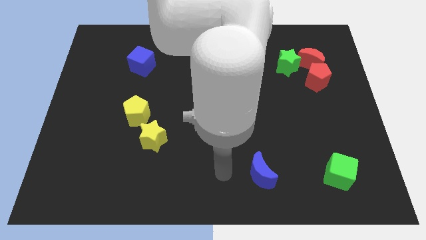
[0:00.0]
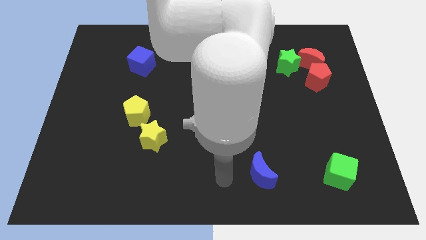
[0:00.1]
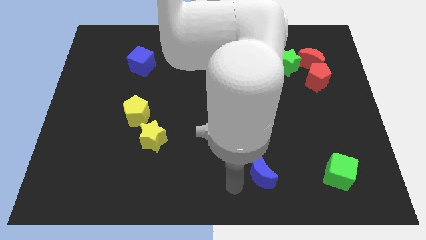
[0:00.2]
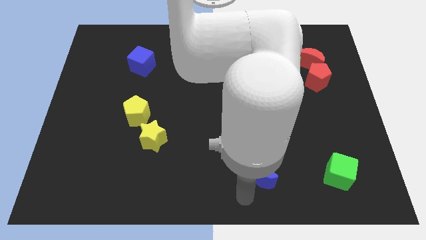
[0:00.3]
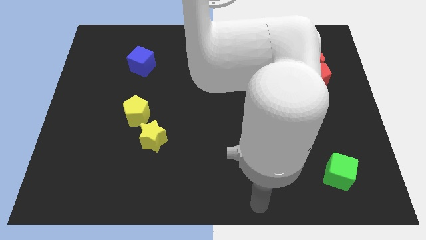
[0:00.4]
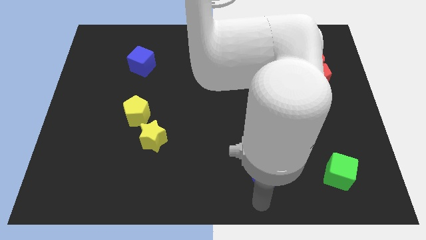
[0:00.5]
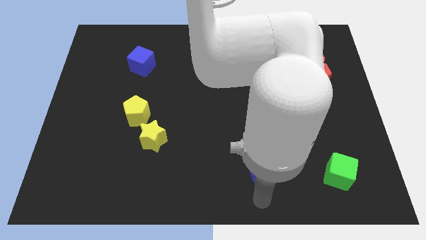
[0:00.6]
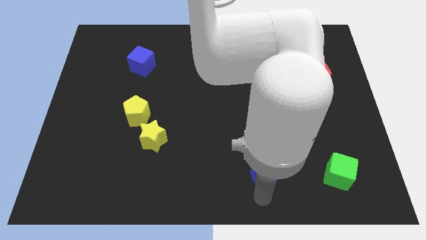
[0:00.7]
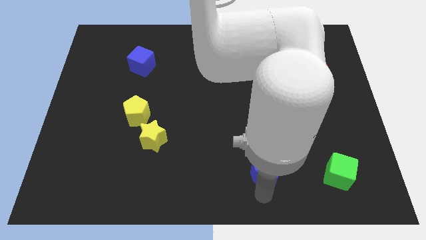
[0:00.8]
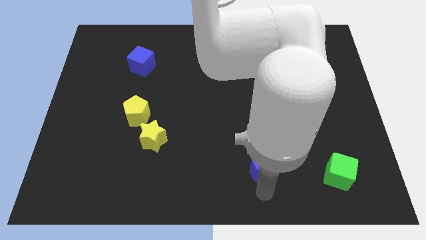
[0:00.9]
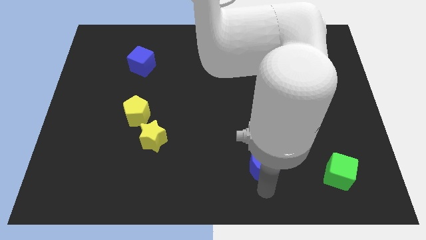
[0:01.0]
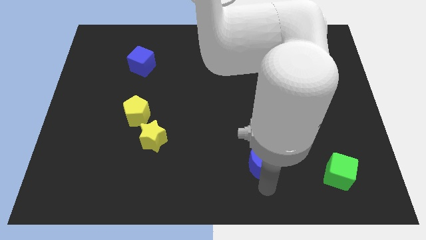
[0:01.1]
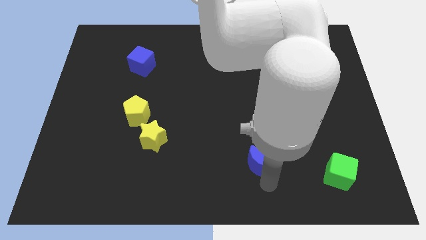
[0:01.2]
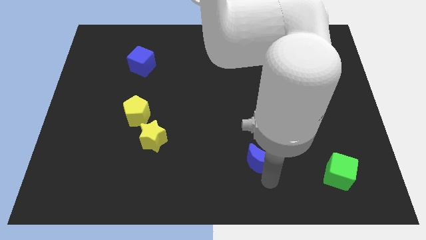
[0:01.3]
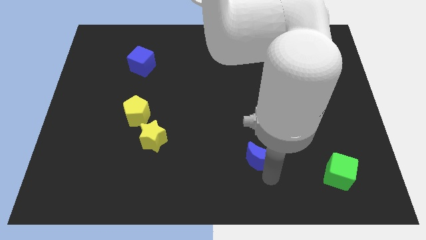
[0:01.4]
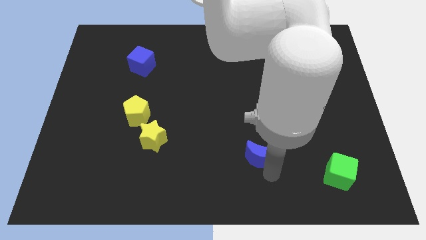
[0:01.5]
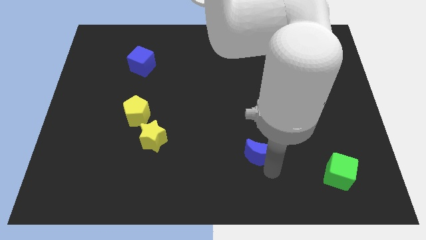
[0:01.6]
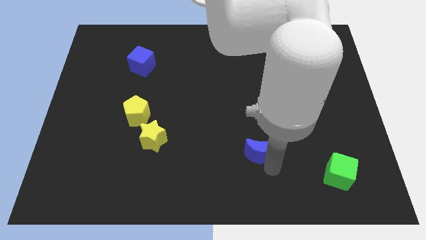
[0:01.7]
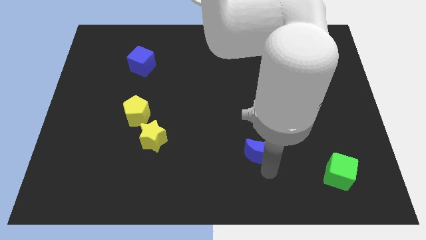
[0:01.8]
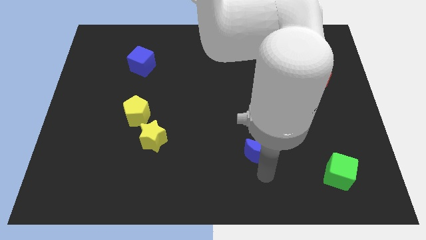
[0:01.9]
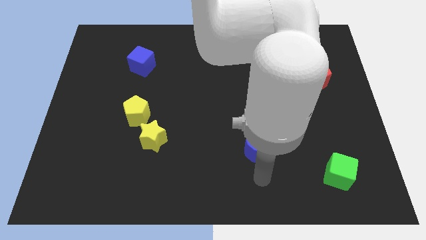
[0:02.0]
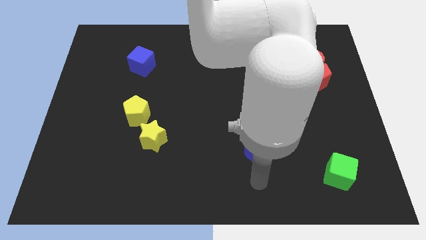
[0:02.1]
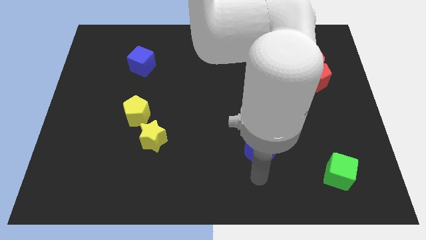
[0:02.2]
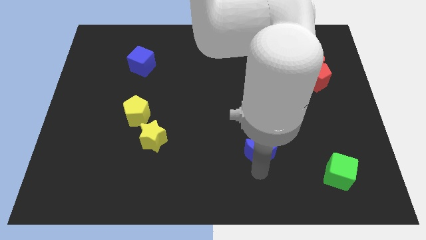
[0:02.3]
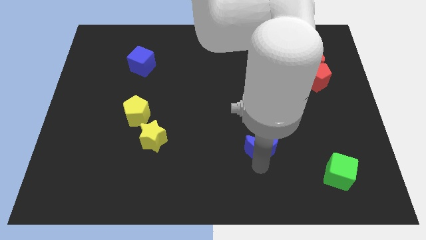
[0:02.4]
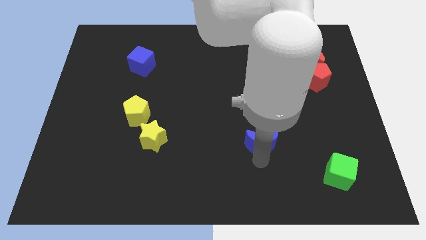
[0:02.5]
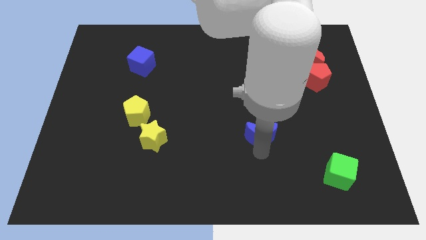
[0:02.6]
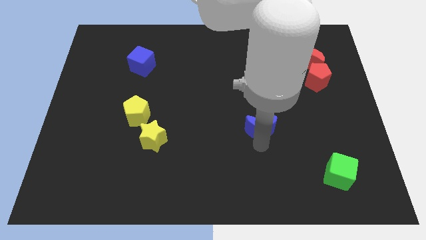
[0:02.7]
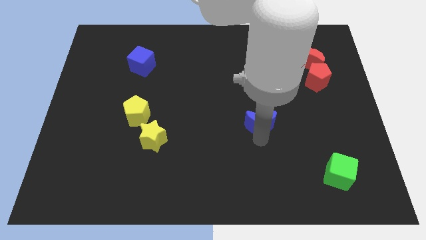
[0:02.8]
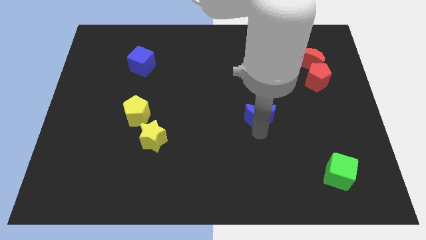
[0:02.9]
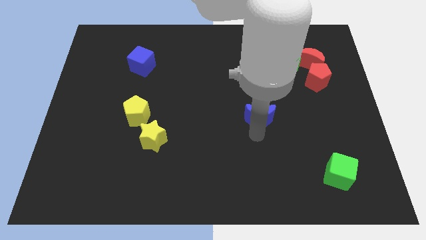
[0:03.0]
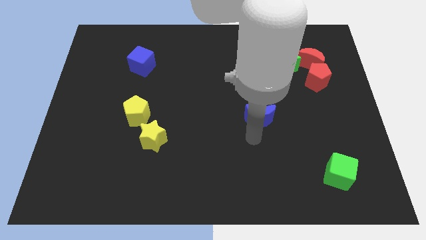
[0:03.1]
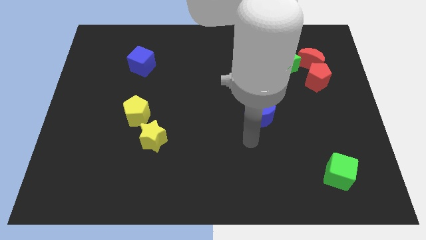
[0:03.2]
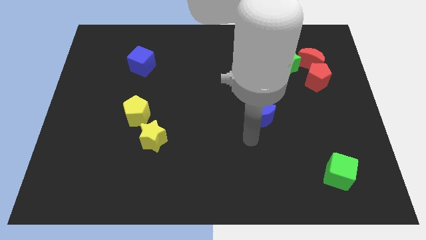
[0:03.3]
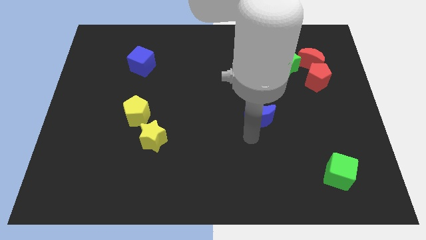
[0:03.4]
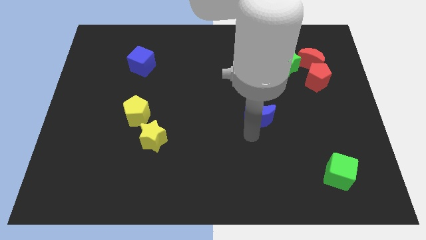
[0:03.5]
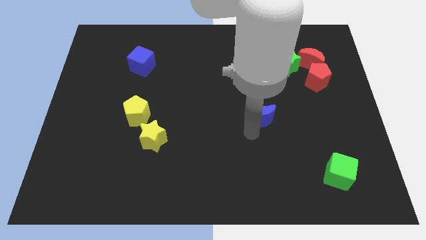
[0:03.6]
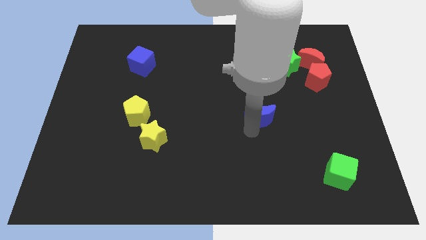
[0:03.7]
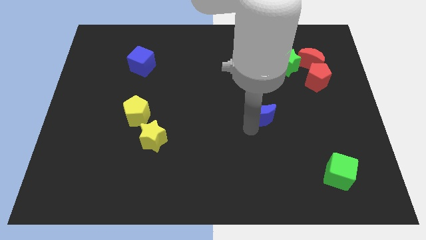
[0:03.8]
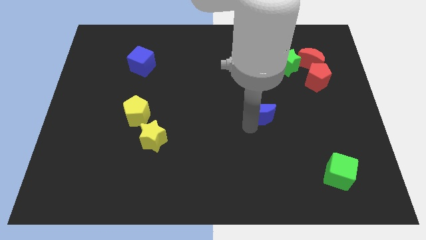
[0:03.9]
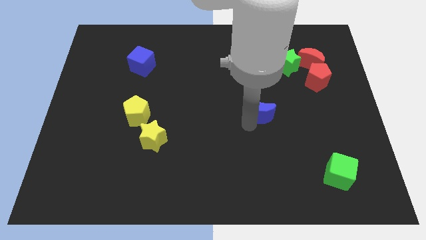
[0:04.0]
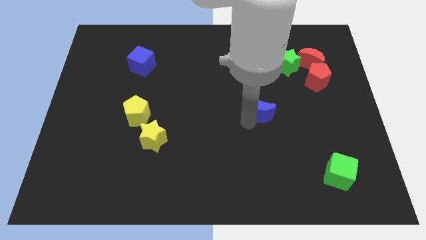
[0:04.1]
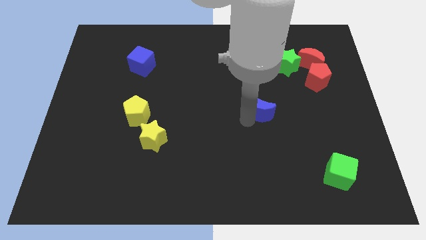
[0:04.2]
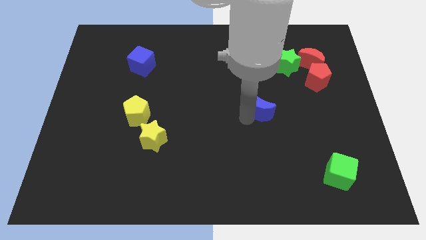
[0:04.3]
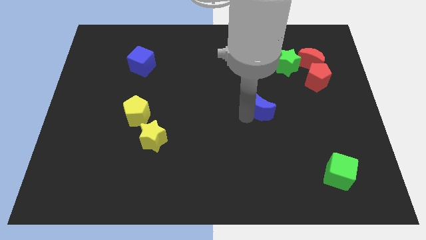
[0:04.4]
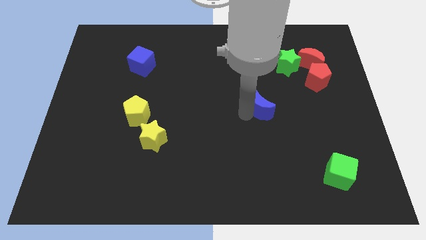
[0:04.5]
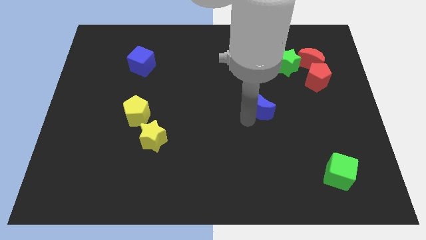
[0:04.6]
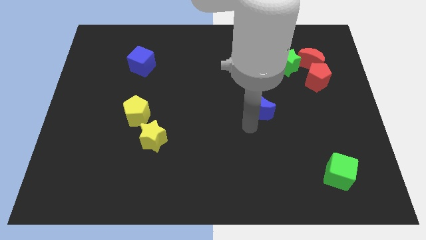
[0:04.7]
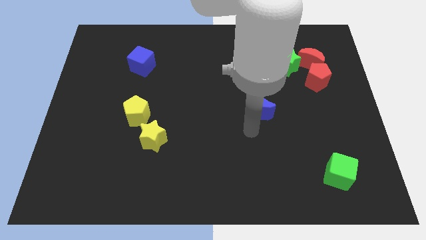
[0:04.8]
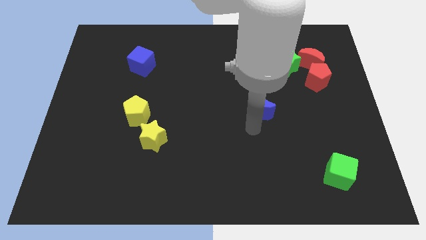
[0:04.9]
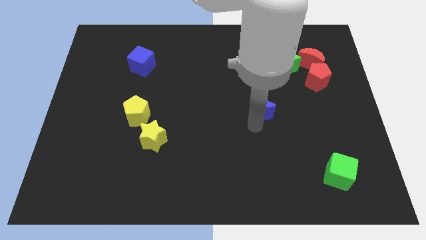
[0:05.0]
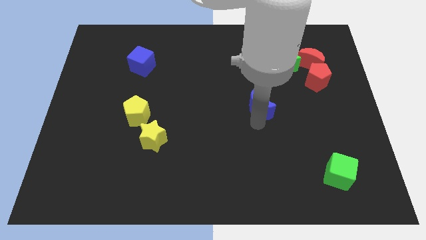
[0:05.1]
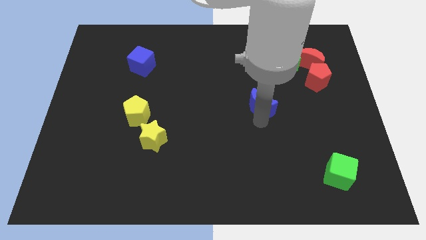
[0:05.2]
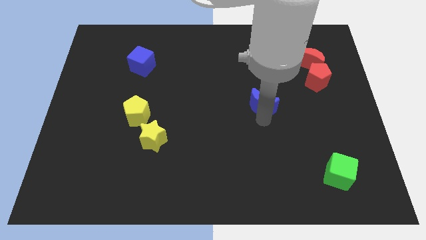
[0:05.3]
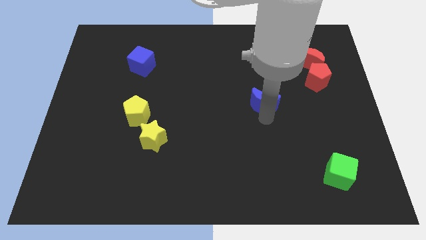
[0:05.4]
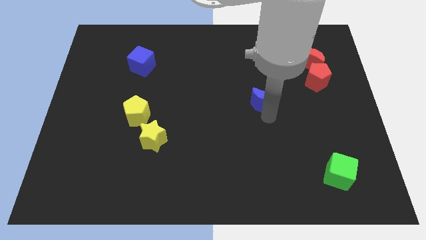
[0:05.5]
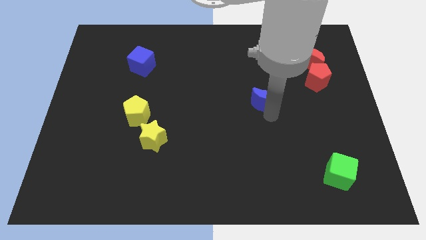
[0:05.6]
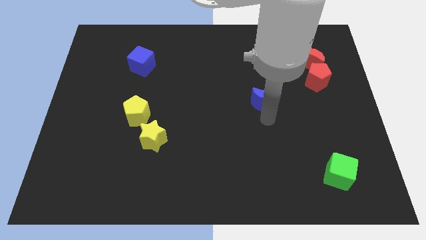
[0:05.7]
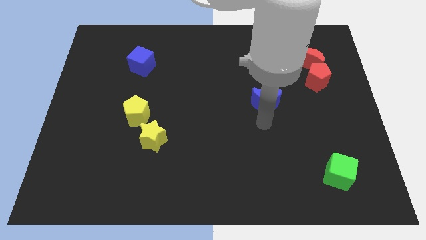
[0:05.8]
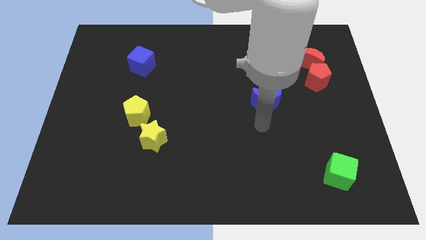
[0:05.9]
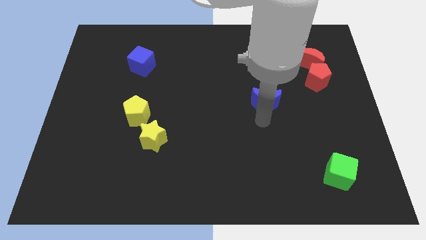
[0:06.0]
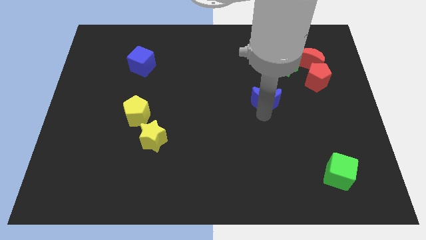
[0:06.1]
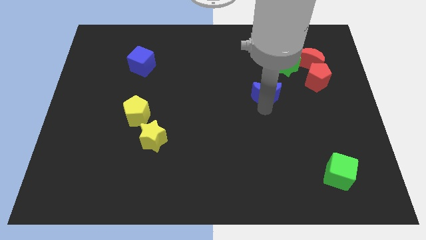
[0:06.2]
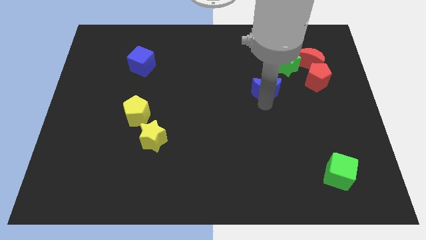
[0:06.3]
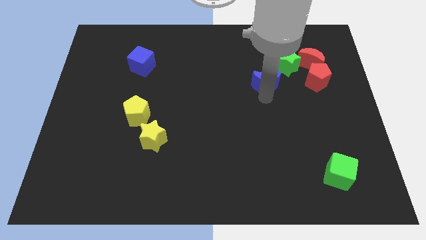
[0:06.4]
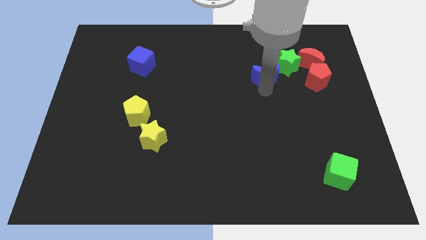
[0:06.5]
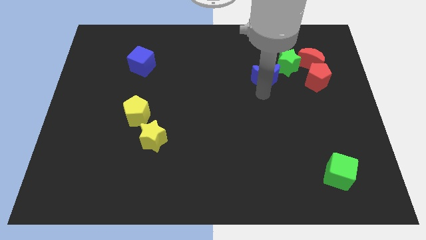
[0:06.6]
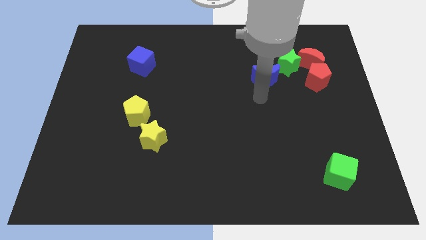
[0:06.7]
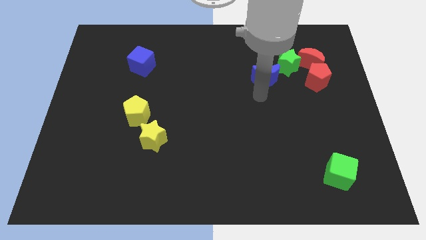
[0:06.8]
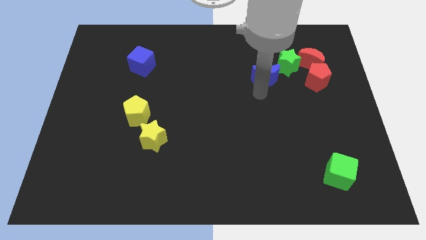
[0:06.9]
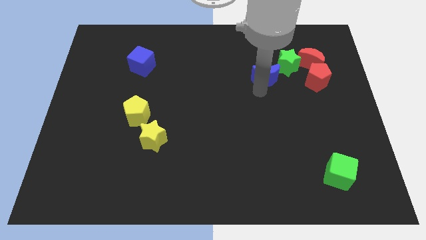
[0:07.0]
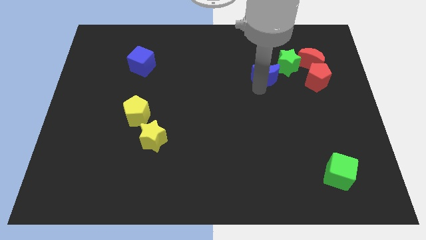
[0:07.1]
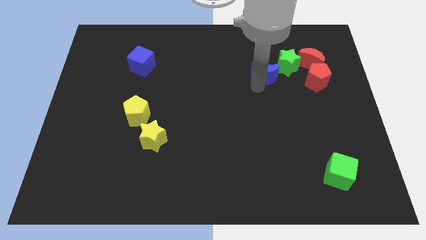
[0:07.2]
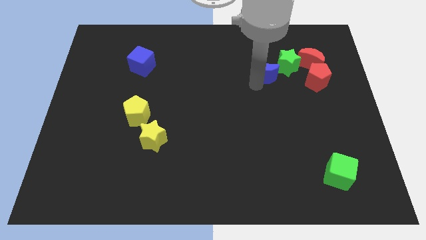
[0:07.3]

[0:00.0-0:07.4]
move the blue moon left of the red moon

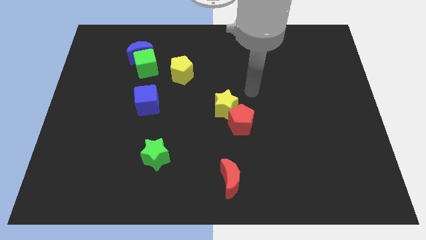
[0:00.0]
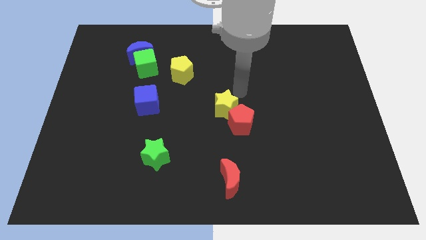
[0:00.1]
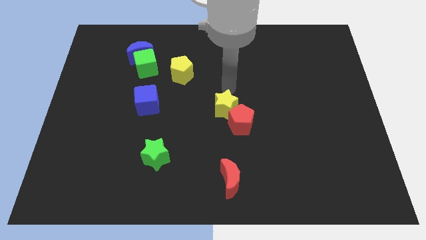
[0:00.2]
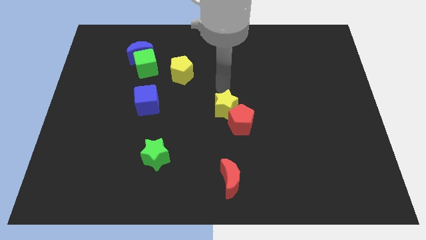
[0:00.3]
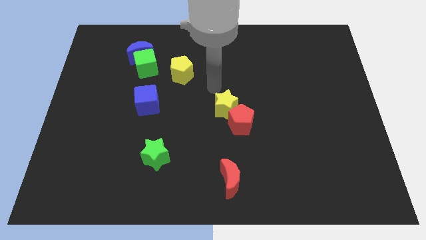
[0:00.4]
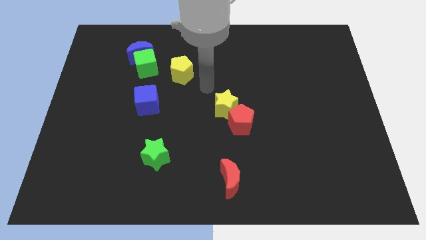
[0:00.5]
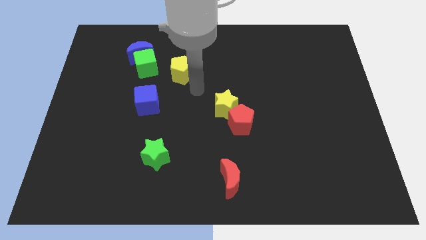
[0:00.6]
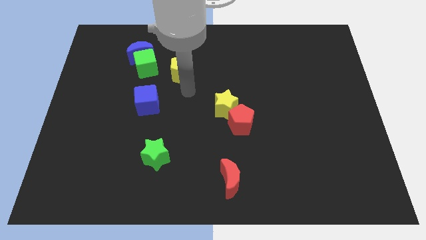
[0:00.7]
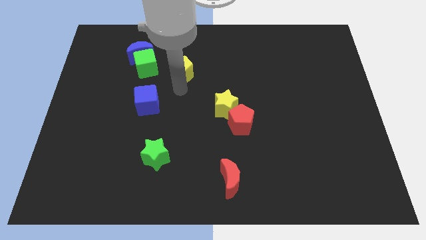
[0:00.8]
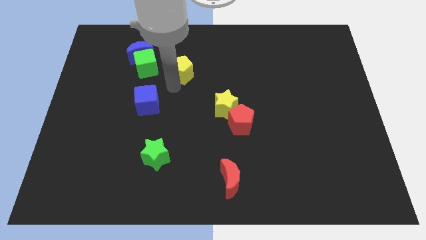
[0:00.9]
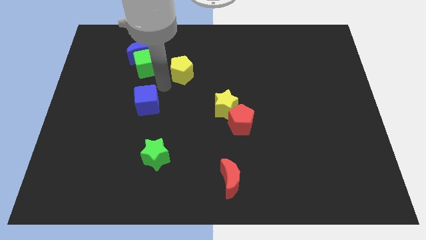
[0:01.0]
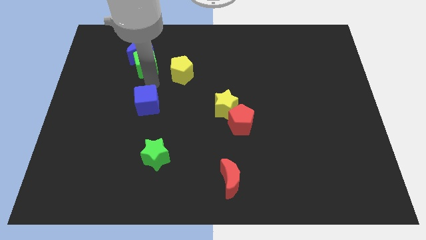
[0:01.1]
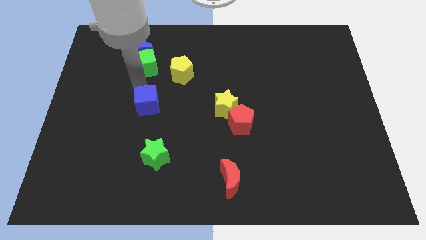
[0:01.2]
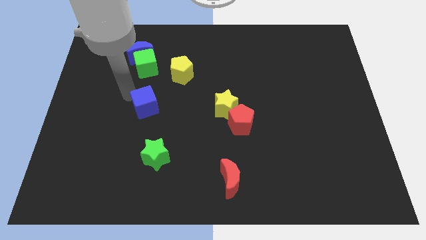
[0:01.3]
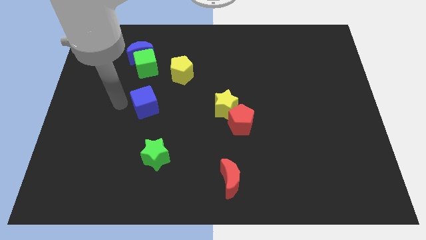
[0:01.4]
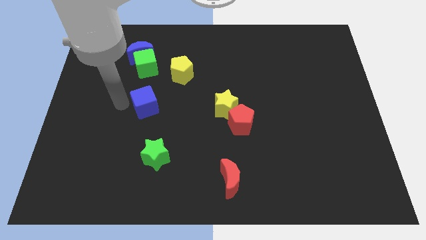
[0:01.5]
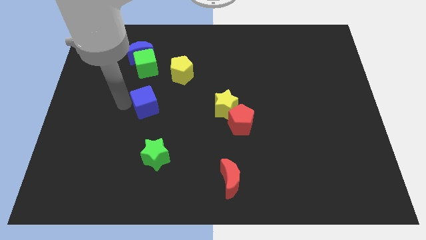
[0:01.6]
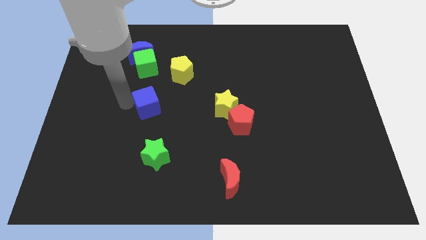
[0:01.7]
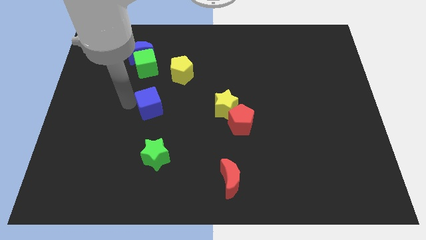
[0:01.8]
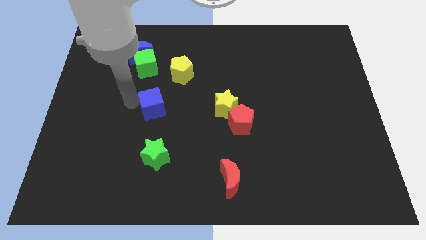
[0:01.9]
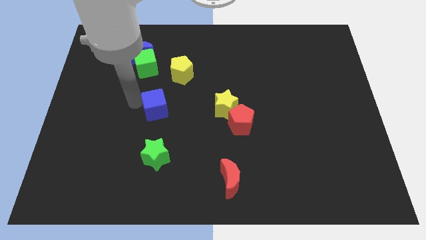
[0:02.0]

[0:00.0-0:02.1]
slide the blue cube to the left of the yellow star
